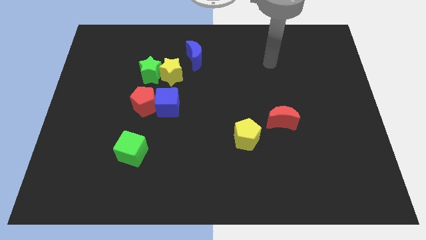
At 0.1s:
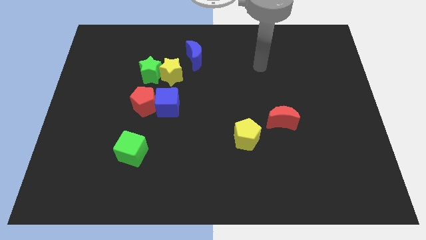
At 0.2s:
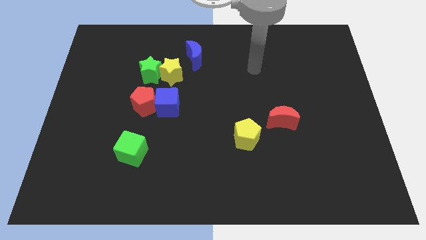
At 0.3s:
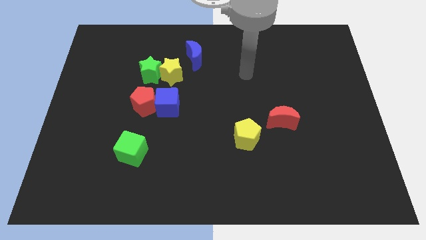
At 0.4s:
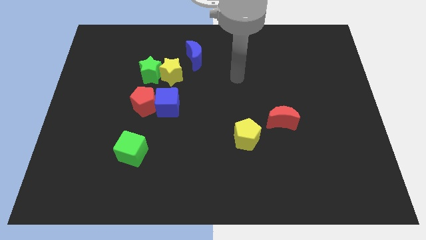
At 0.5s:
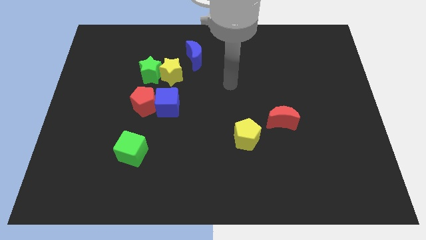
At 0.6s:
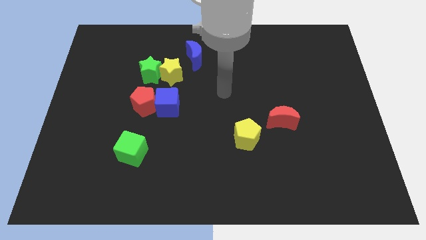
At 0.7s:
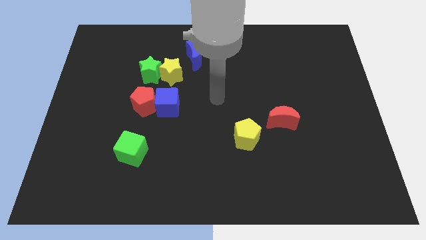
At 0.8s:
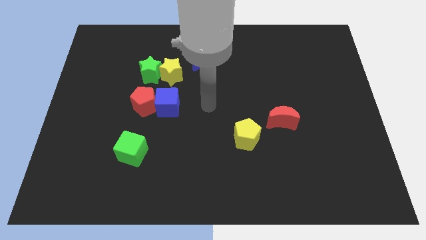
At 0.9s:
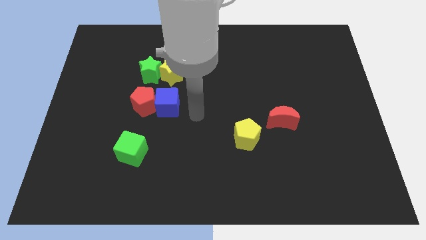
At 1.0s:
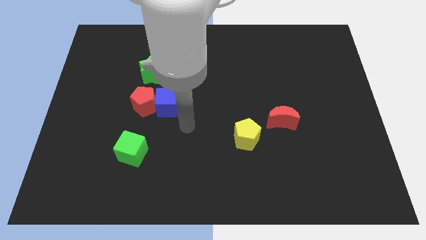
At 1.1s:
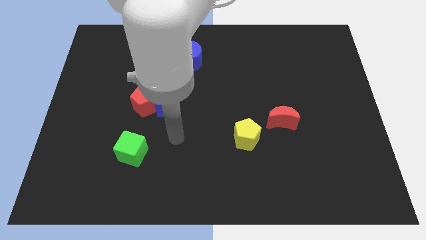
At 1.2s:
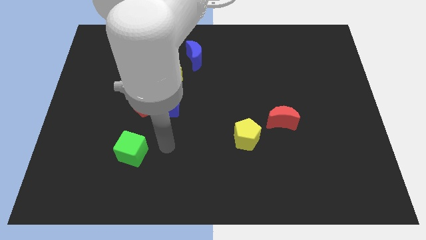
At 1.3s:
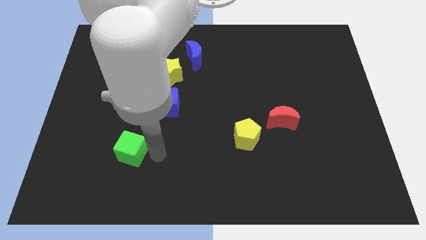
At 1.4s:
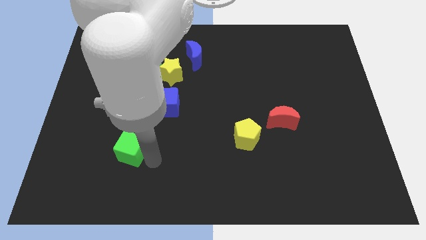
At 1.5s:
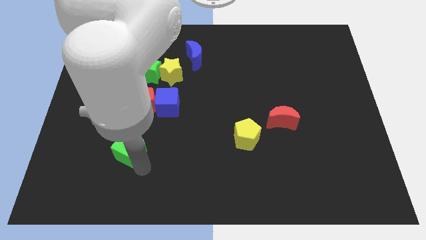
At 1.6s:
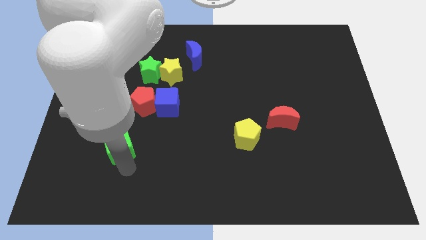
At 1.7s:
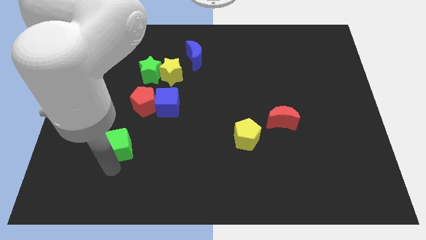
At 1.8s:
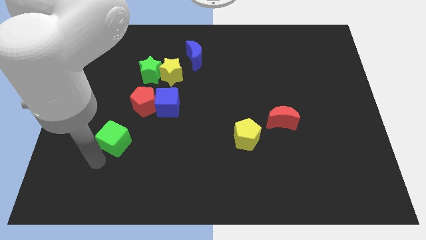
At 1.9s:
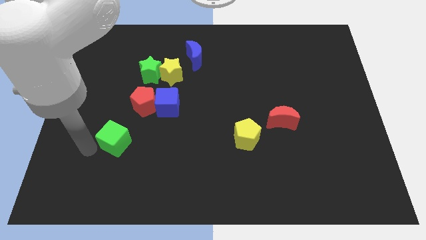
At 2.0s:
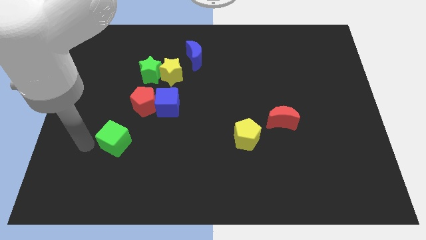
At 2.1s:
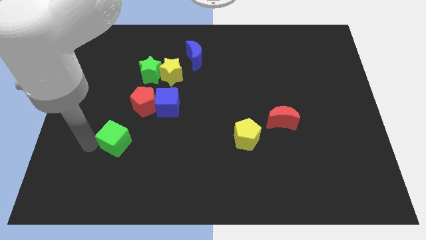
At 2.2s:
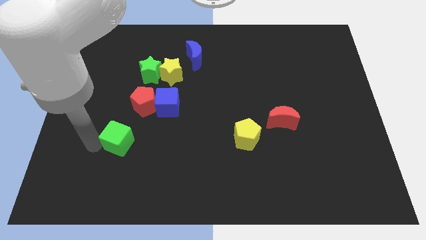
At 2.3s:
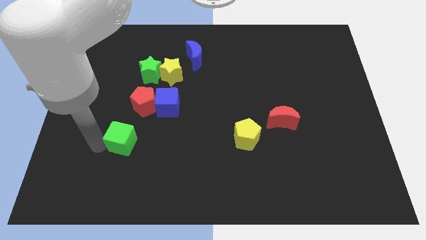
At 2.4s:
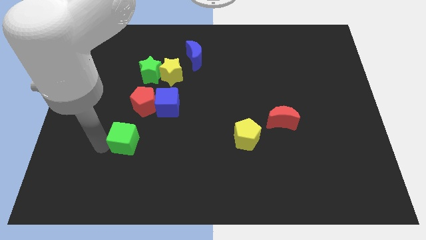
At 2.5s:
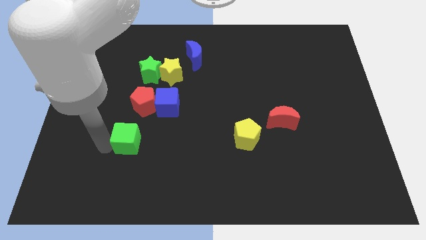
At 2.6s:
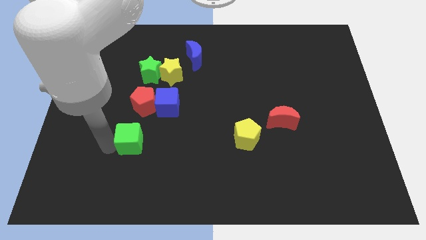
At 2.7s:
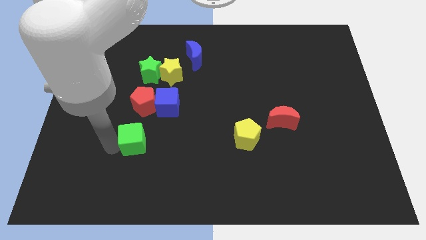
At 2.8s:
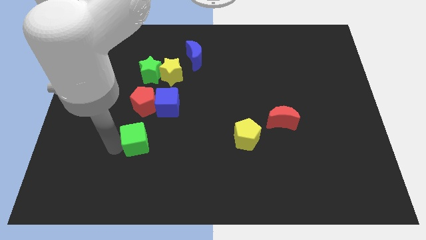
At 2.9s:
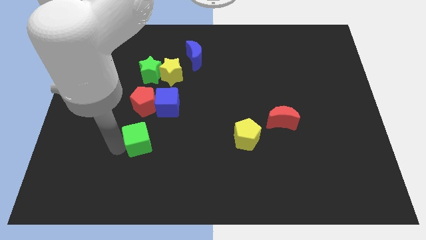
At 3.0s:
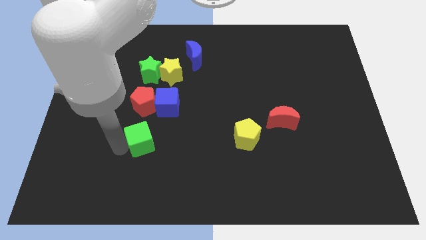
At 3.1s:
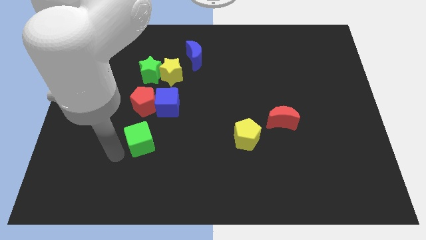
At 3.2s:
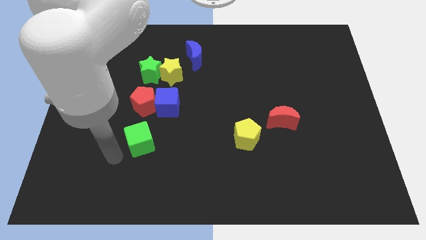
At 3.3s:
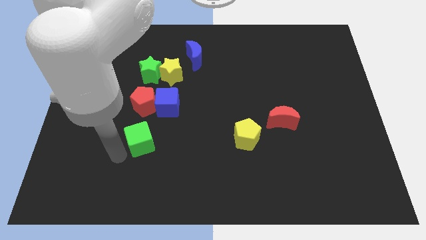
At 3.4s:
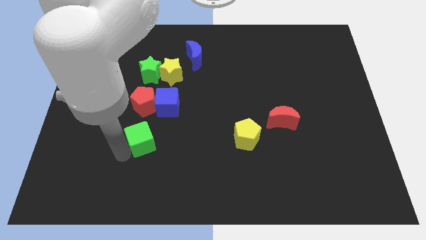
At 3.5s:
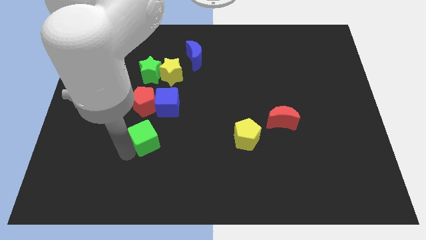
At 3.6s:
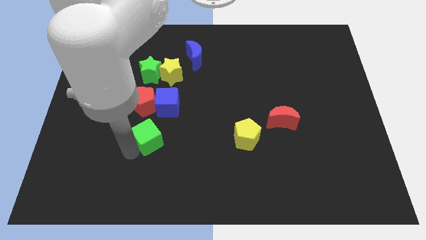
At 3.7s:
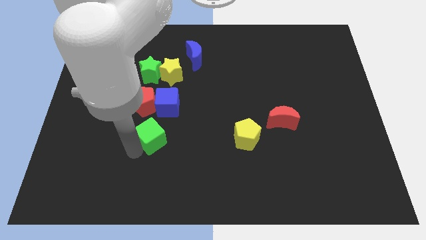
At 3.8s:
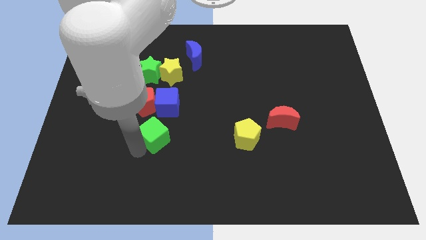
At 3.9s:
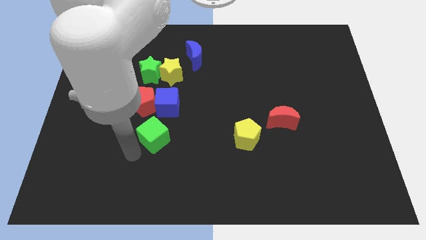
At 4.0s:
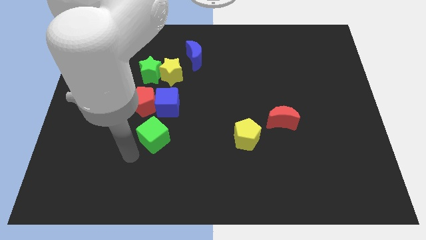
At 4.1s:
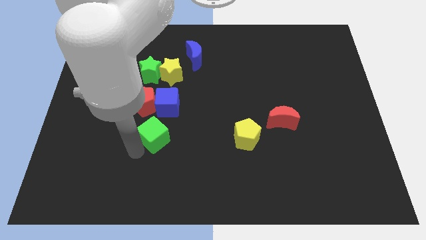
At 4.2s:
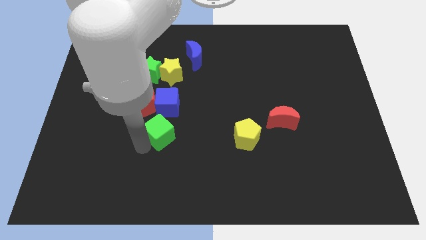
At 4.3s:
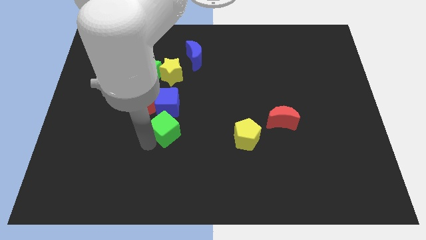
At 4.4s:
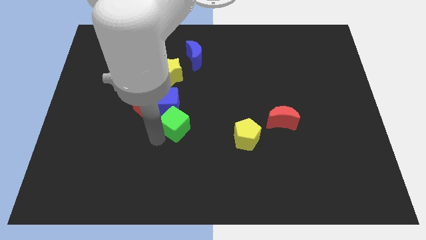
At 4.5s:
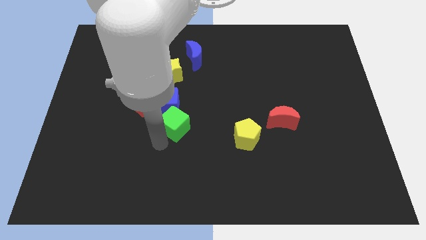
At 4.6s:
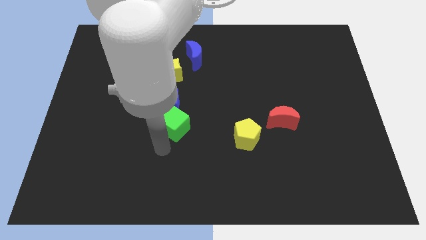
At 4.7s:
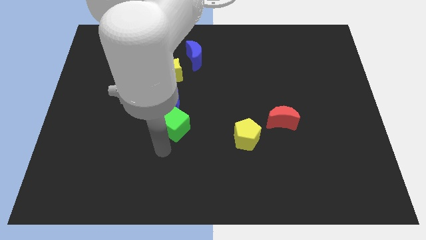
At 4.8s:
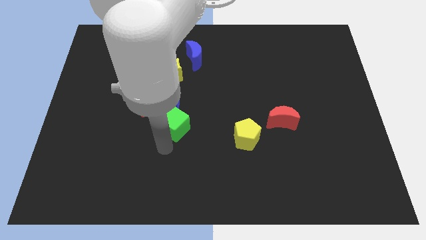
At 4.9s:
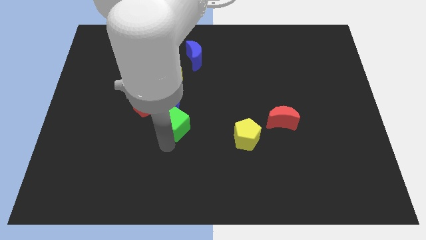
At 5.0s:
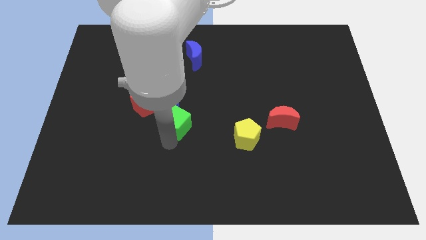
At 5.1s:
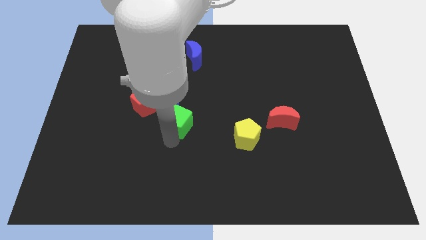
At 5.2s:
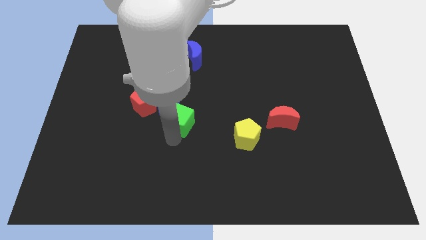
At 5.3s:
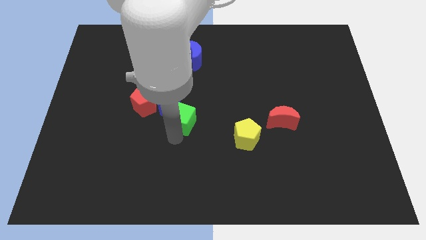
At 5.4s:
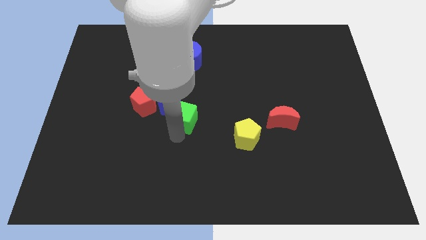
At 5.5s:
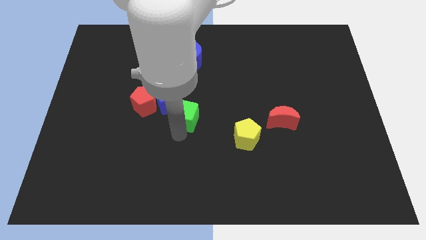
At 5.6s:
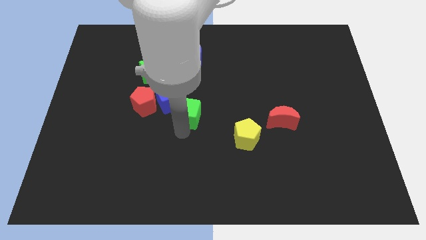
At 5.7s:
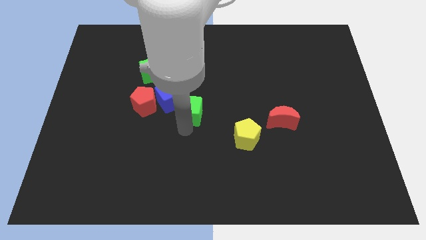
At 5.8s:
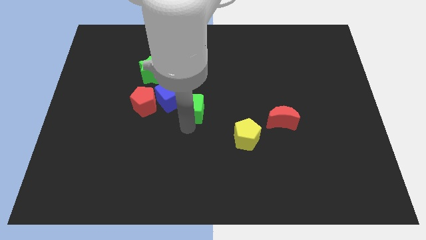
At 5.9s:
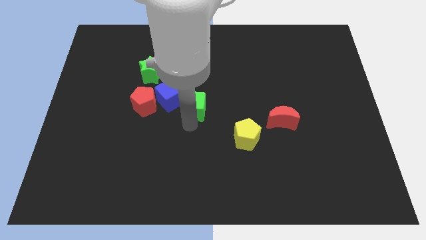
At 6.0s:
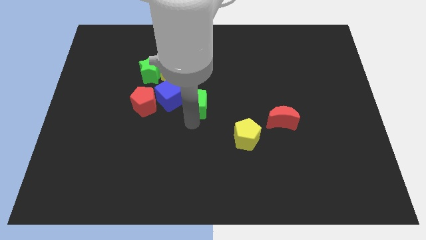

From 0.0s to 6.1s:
move the green cube to the bottom right side of the yellow star

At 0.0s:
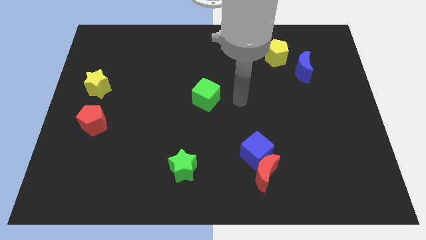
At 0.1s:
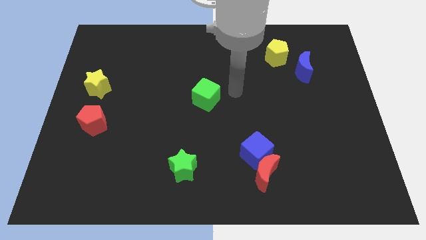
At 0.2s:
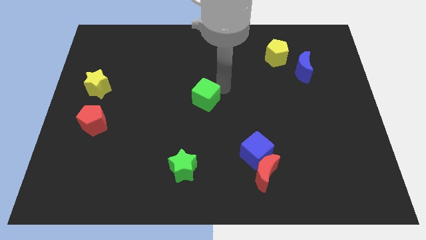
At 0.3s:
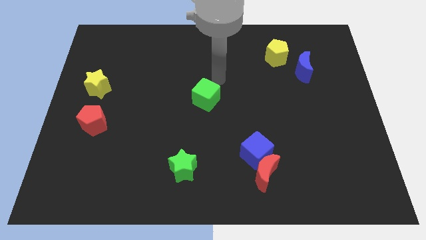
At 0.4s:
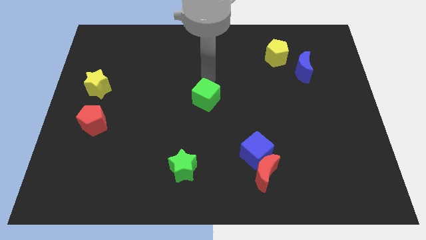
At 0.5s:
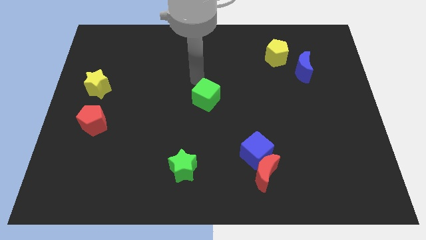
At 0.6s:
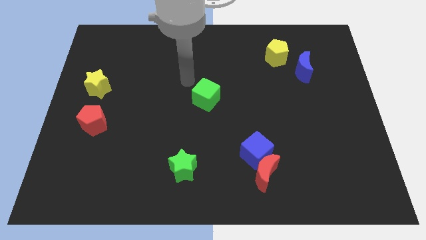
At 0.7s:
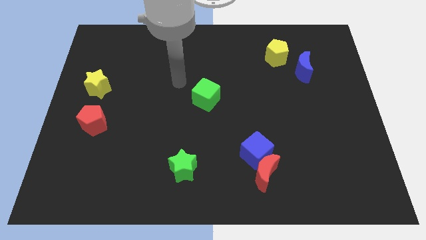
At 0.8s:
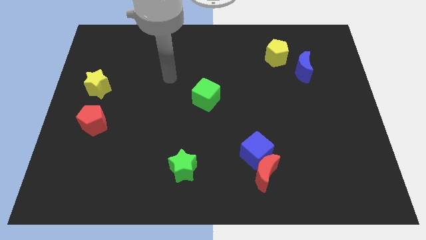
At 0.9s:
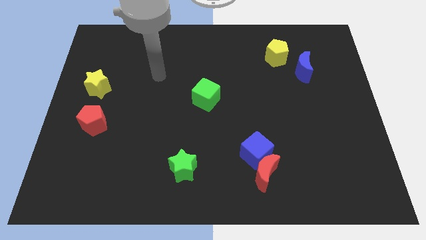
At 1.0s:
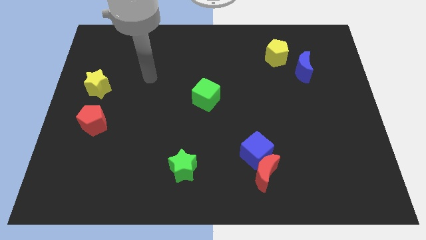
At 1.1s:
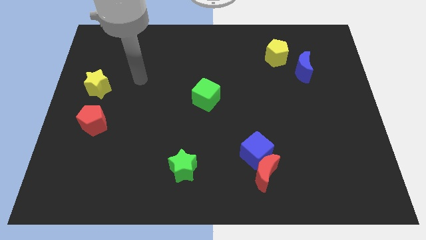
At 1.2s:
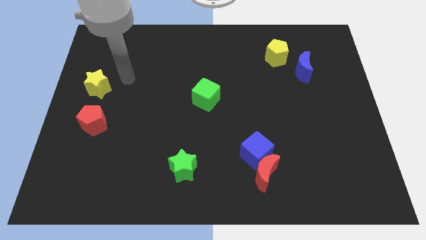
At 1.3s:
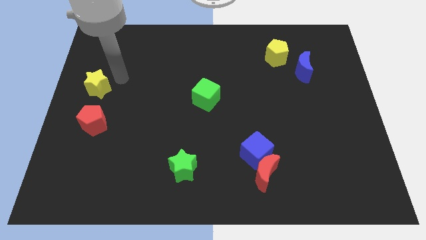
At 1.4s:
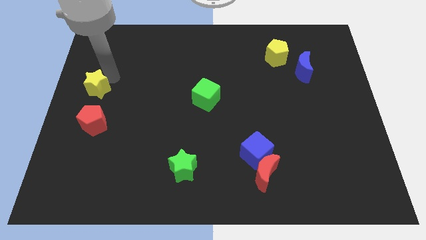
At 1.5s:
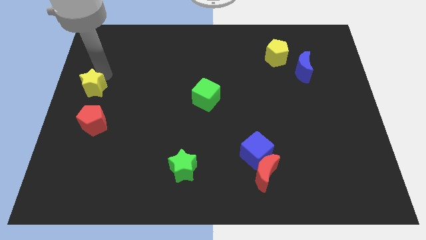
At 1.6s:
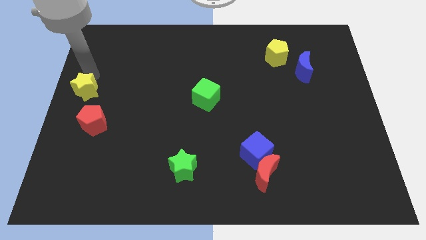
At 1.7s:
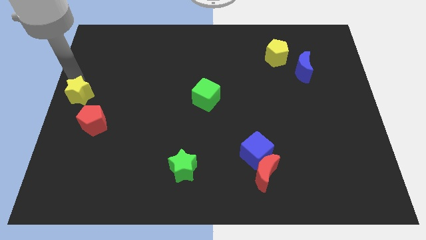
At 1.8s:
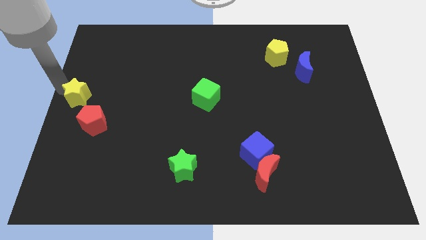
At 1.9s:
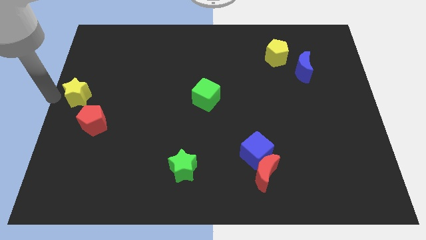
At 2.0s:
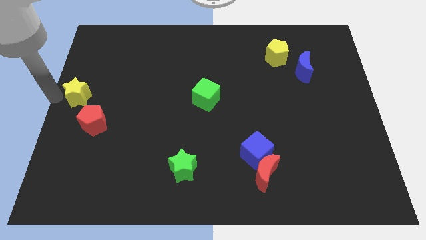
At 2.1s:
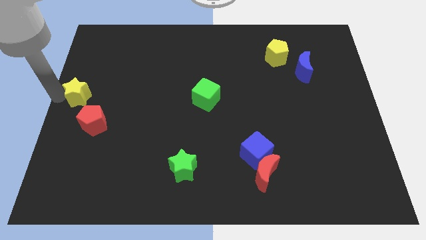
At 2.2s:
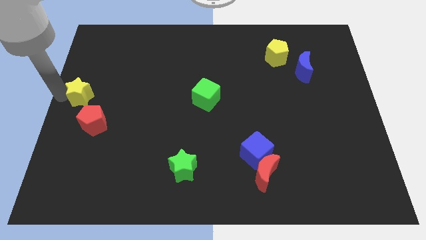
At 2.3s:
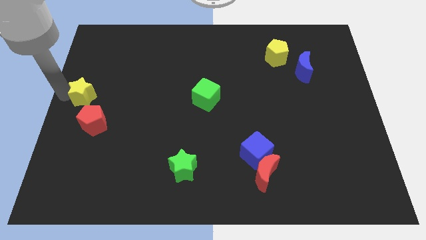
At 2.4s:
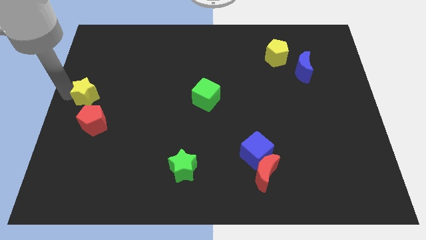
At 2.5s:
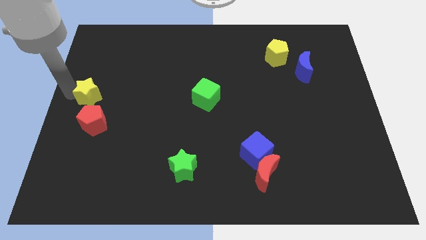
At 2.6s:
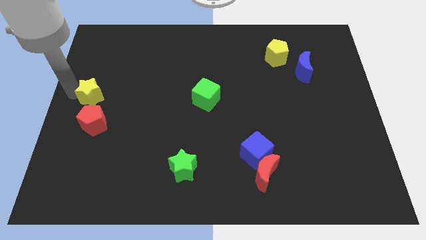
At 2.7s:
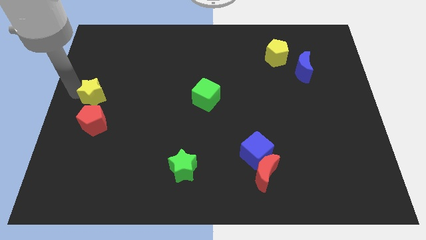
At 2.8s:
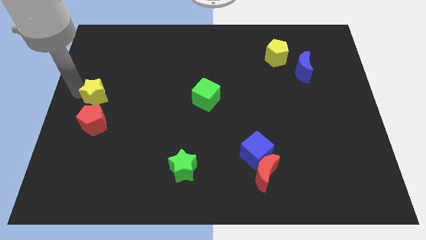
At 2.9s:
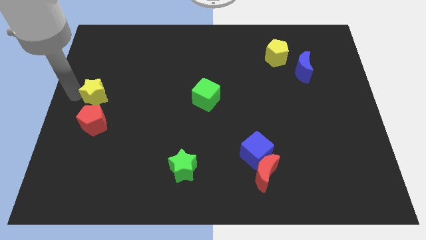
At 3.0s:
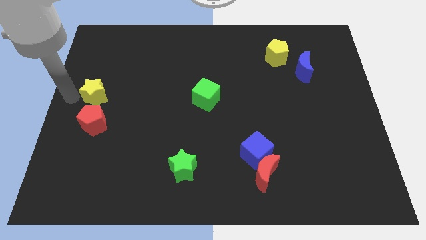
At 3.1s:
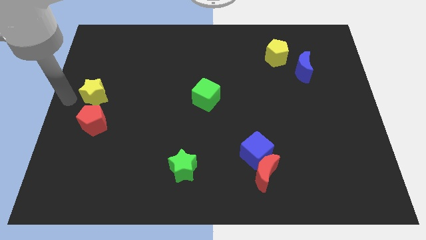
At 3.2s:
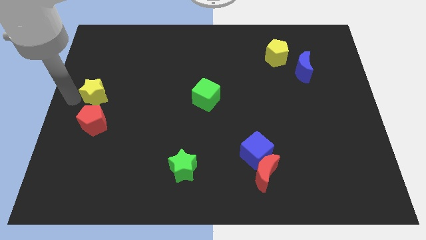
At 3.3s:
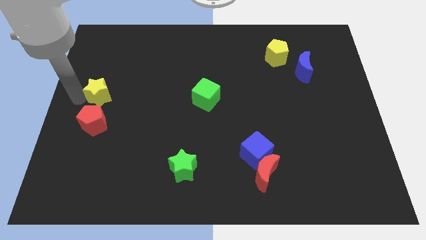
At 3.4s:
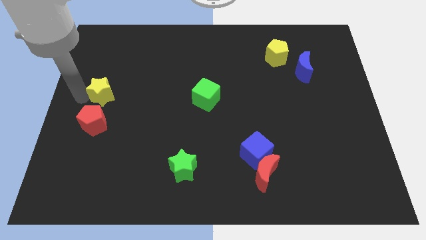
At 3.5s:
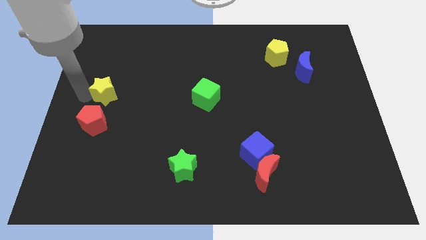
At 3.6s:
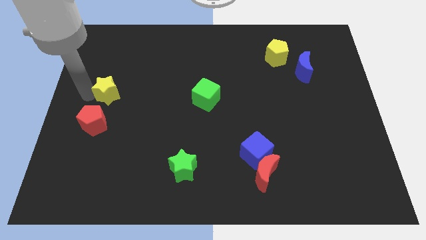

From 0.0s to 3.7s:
push the yellow star to the top right side of the red pentagon
